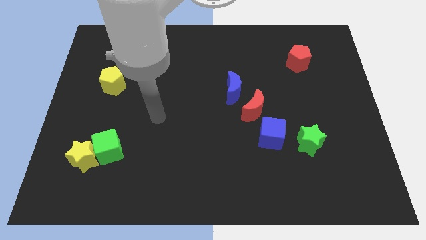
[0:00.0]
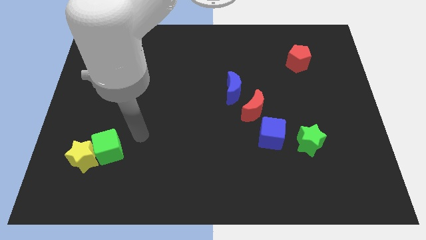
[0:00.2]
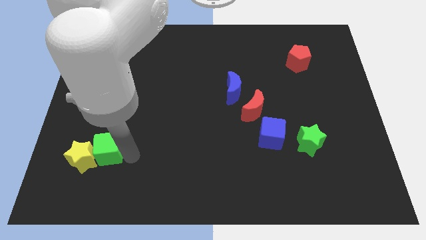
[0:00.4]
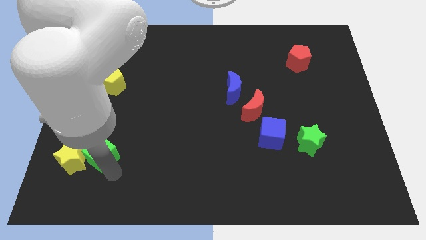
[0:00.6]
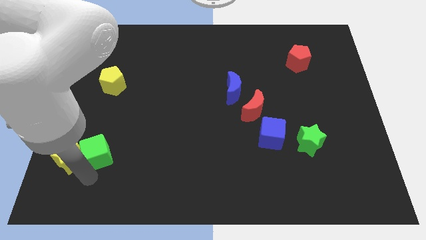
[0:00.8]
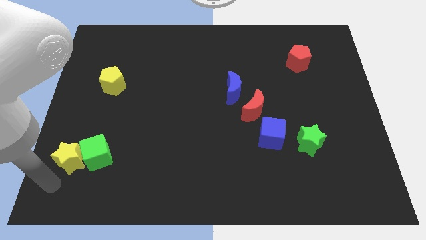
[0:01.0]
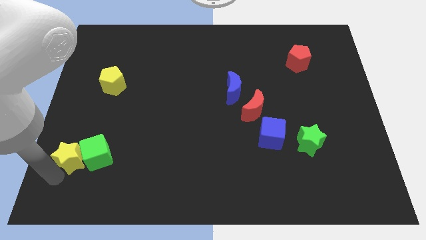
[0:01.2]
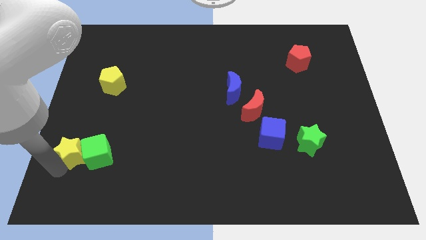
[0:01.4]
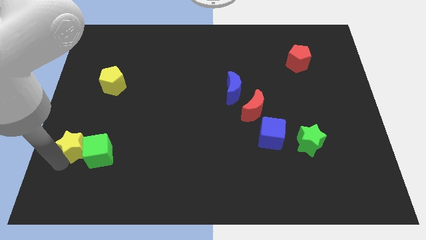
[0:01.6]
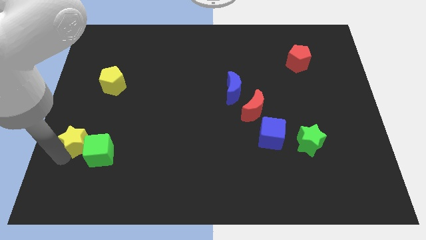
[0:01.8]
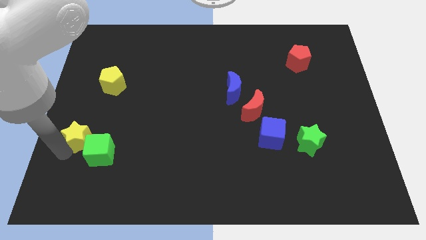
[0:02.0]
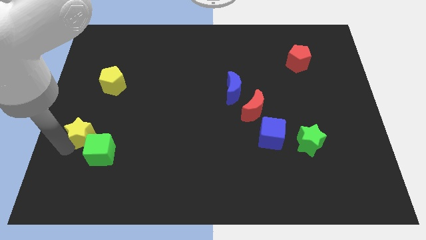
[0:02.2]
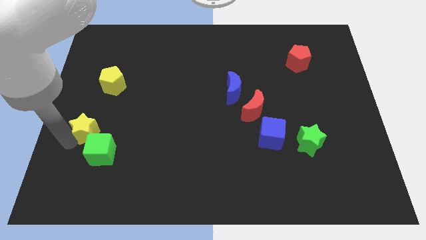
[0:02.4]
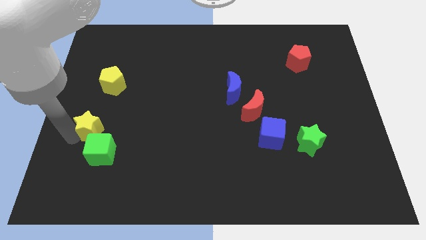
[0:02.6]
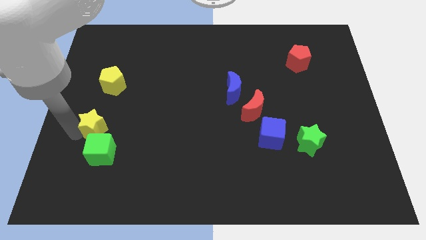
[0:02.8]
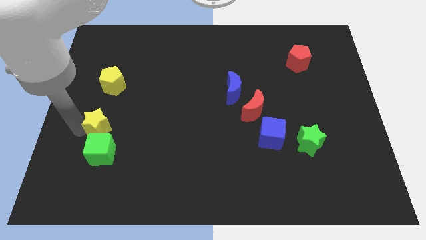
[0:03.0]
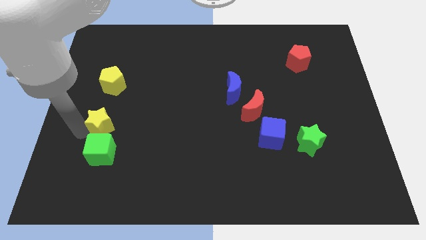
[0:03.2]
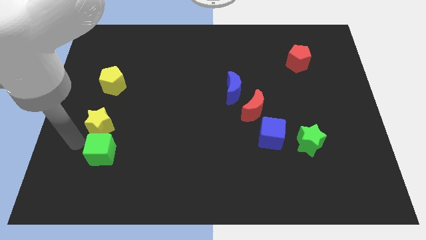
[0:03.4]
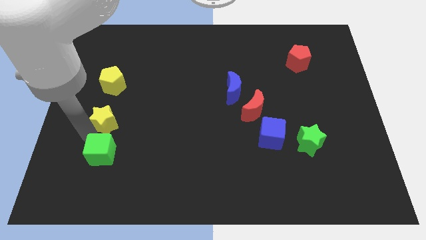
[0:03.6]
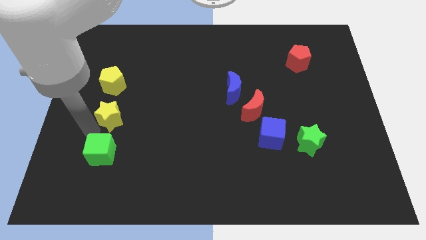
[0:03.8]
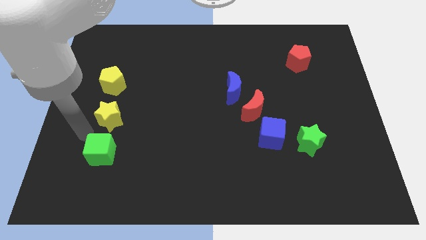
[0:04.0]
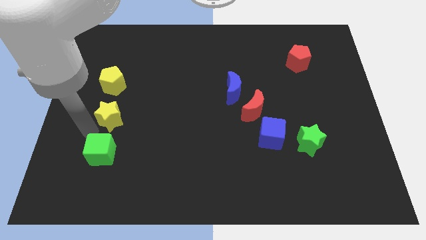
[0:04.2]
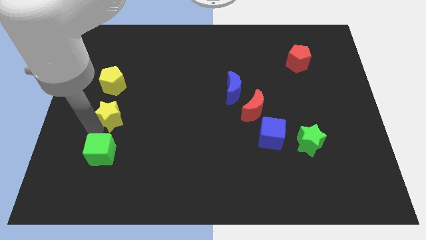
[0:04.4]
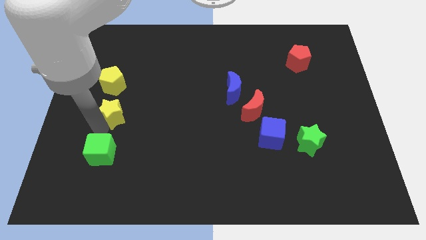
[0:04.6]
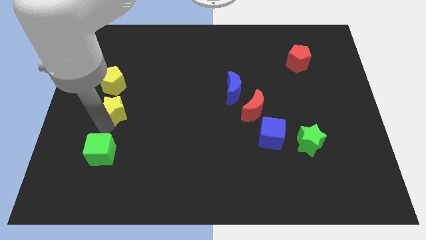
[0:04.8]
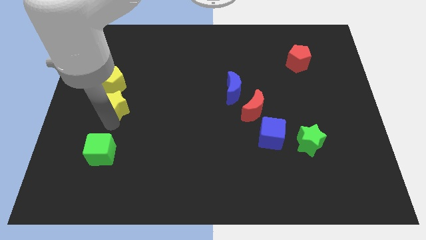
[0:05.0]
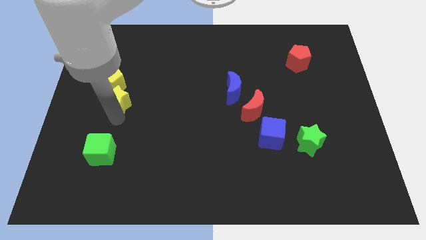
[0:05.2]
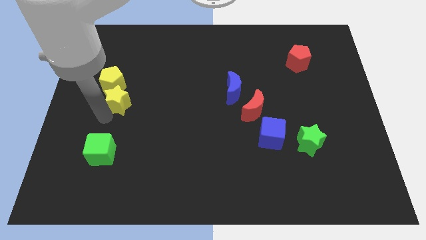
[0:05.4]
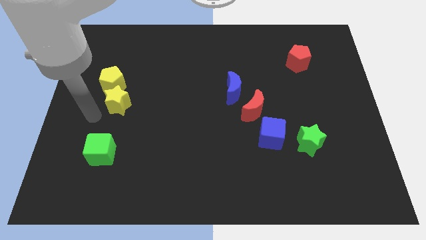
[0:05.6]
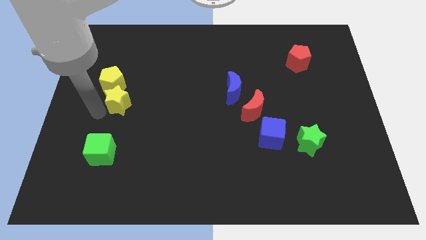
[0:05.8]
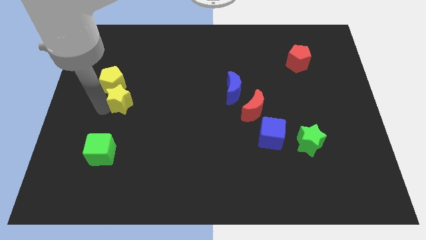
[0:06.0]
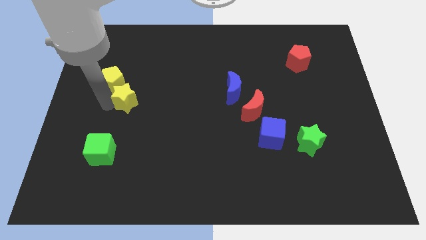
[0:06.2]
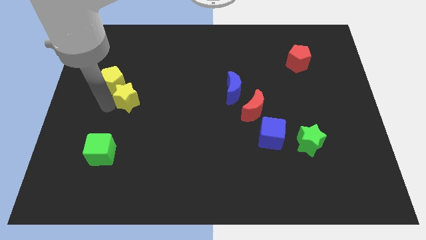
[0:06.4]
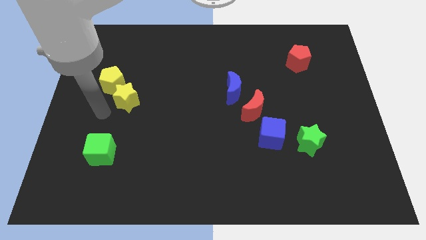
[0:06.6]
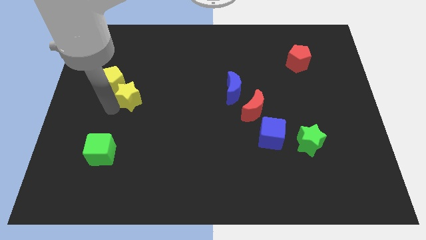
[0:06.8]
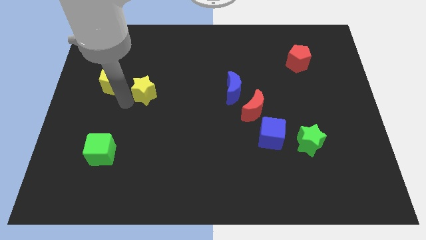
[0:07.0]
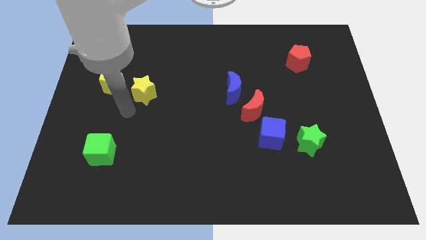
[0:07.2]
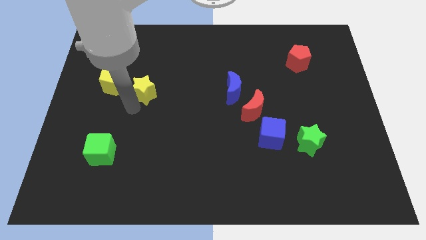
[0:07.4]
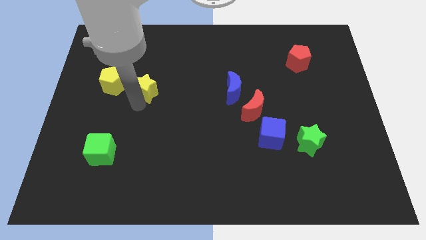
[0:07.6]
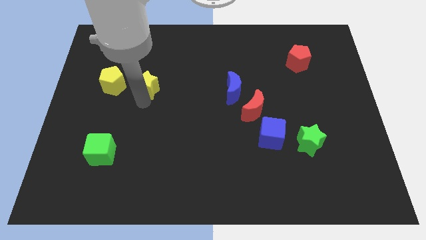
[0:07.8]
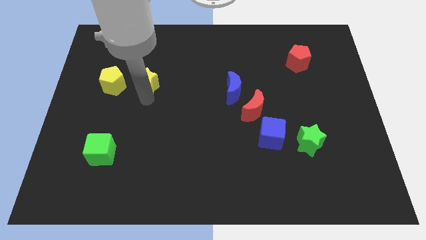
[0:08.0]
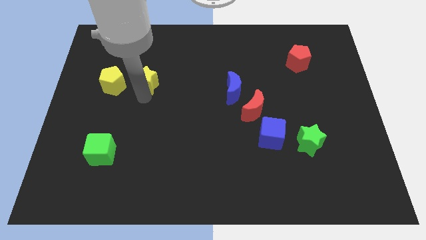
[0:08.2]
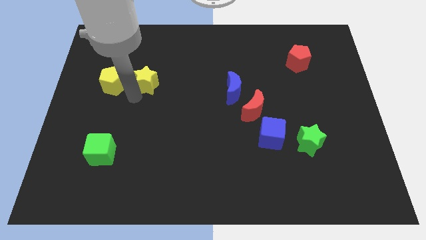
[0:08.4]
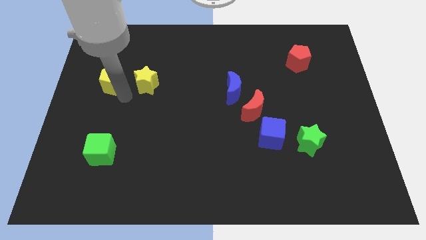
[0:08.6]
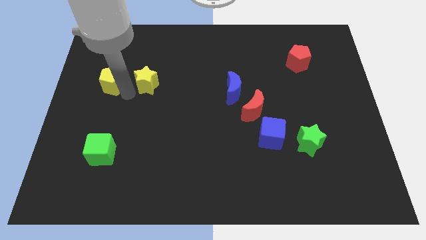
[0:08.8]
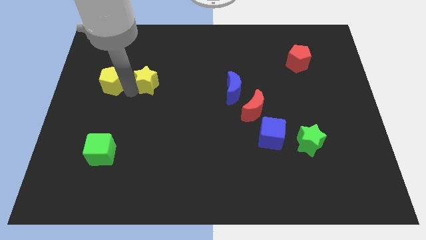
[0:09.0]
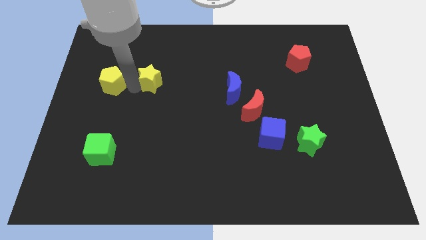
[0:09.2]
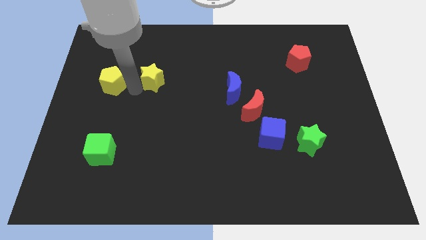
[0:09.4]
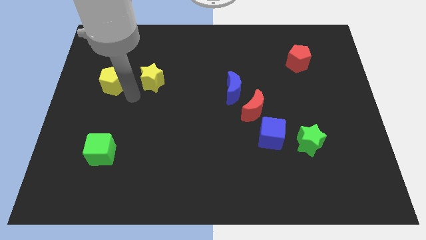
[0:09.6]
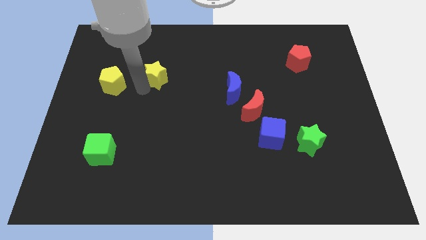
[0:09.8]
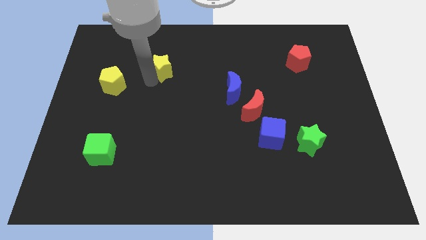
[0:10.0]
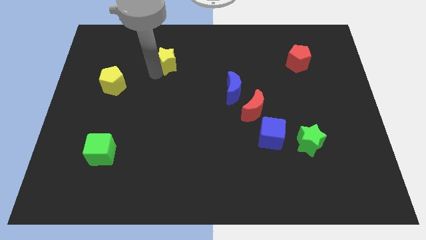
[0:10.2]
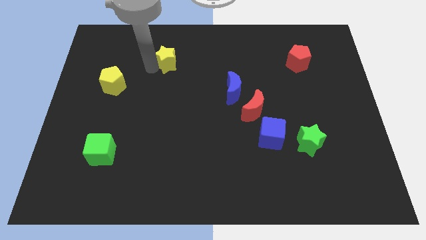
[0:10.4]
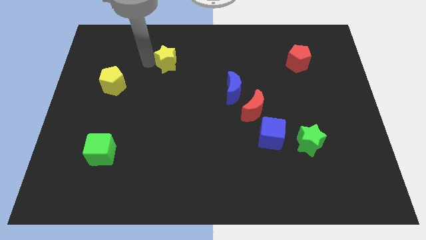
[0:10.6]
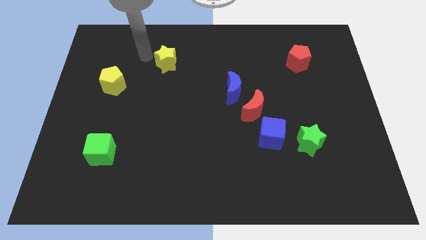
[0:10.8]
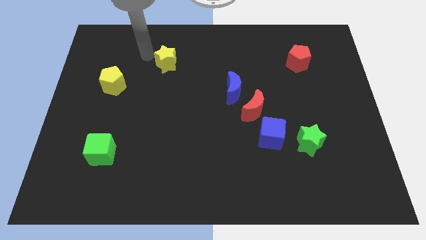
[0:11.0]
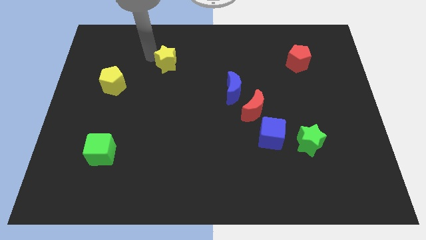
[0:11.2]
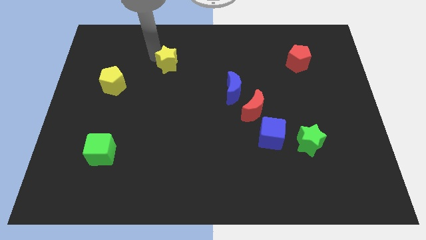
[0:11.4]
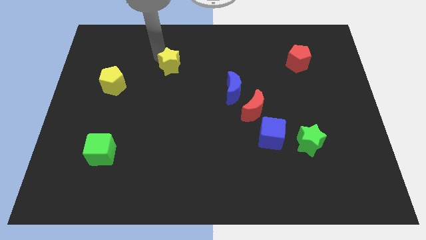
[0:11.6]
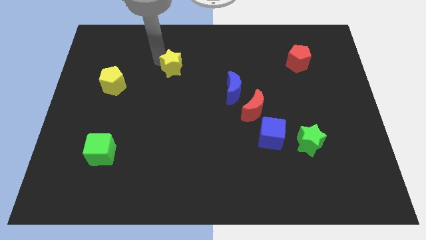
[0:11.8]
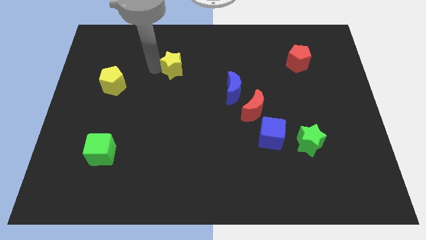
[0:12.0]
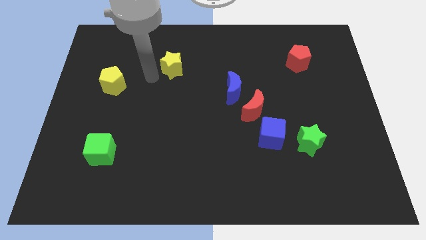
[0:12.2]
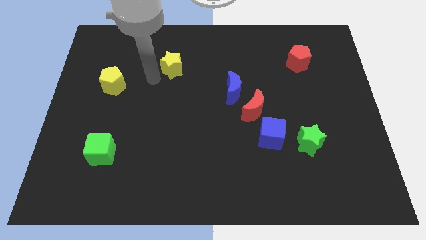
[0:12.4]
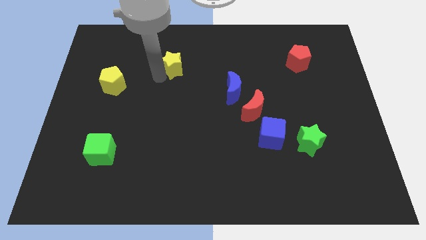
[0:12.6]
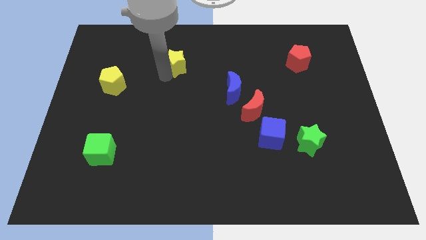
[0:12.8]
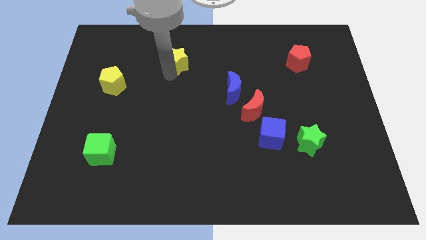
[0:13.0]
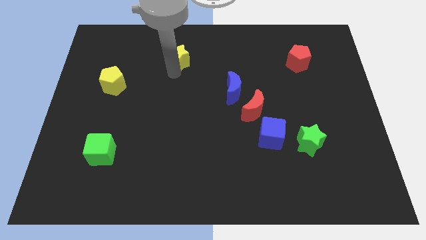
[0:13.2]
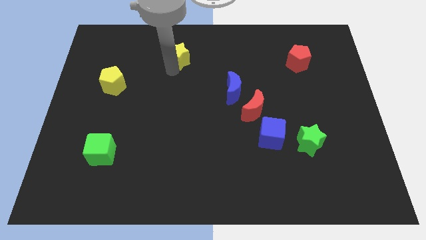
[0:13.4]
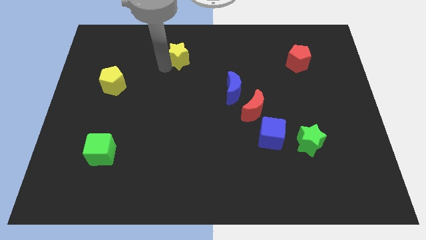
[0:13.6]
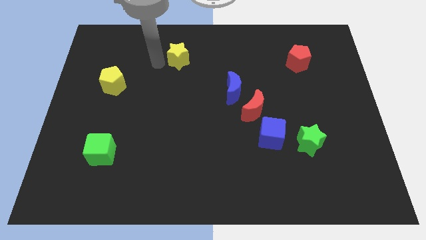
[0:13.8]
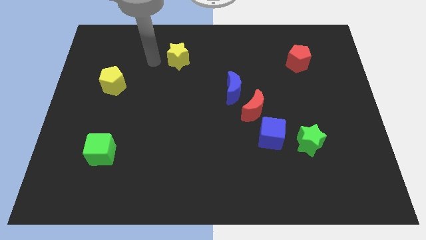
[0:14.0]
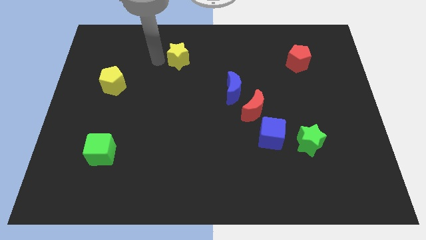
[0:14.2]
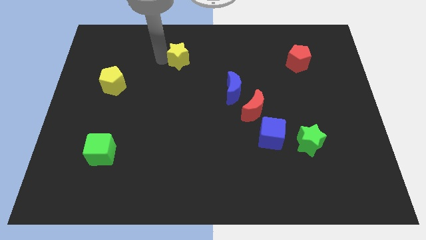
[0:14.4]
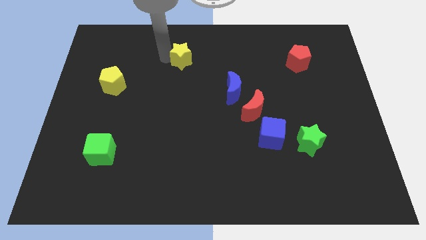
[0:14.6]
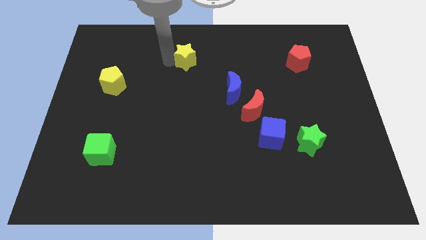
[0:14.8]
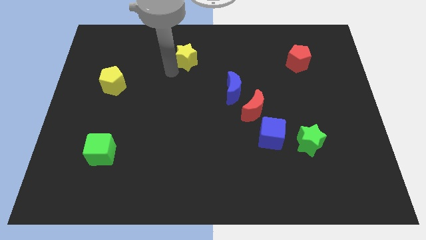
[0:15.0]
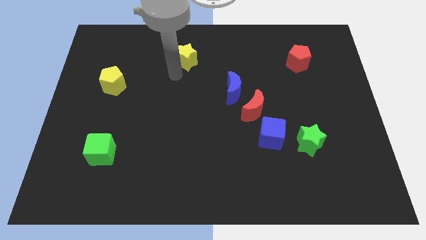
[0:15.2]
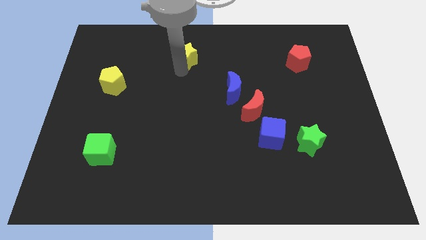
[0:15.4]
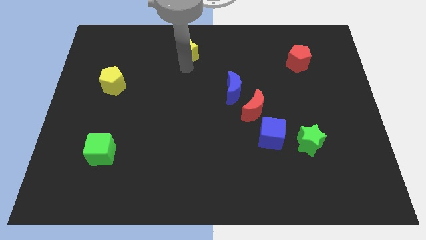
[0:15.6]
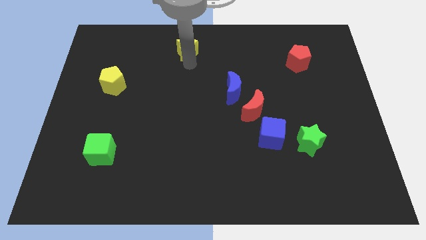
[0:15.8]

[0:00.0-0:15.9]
put the yellow star to the top side
